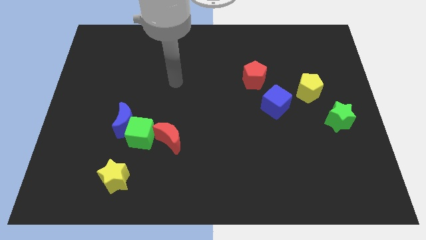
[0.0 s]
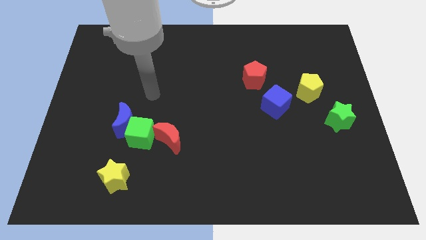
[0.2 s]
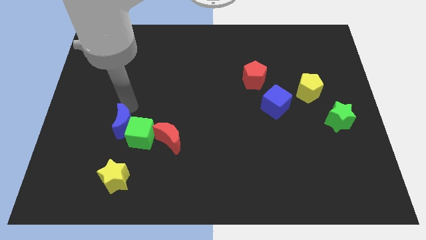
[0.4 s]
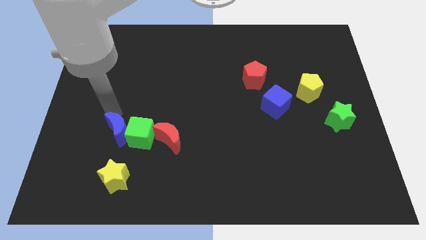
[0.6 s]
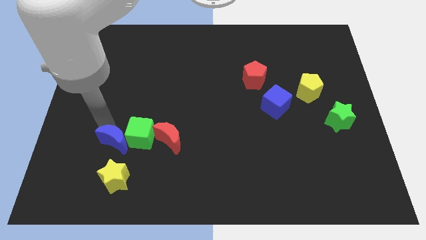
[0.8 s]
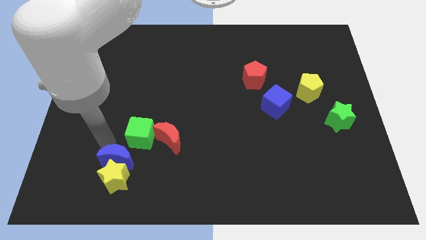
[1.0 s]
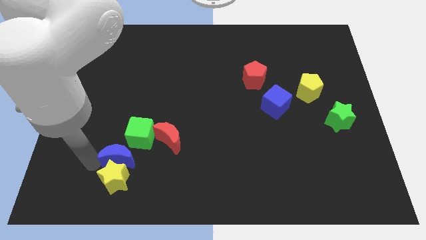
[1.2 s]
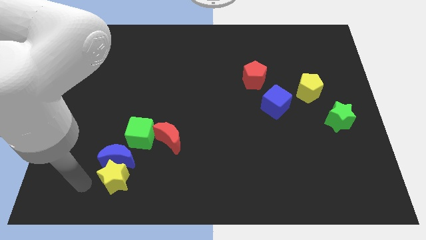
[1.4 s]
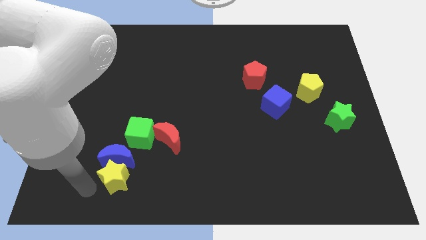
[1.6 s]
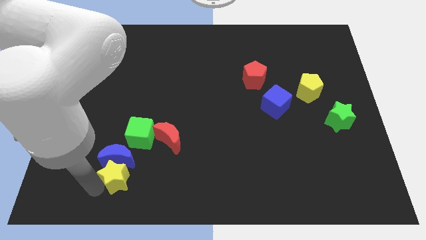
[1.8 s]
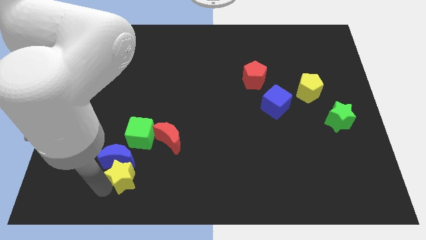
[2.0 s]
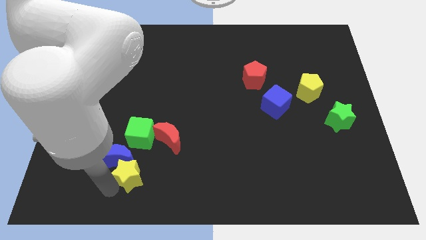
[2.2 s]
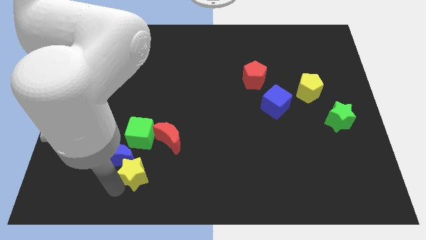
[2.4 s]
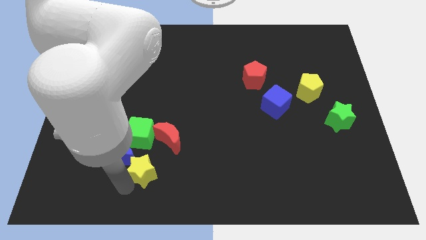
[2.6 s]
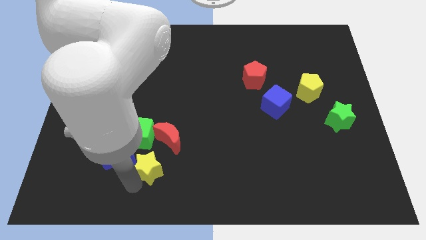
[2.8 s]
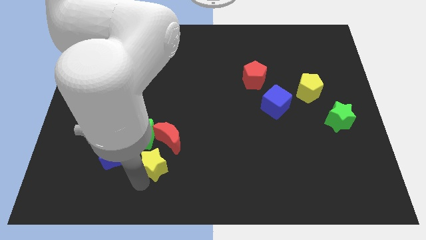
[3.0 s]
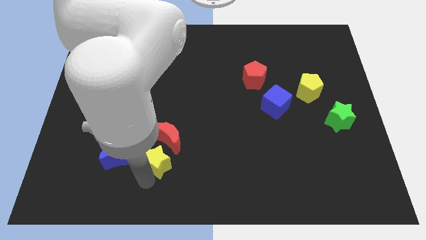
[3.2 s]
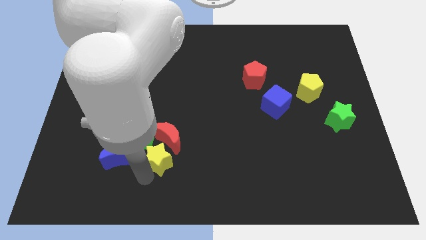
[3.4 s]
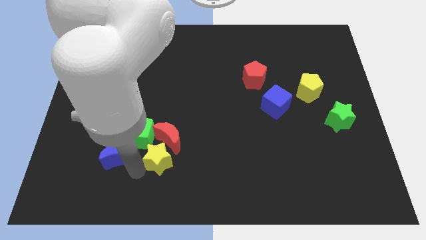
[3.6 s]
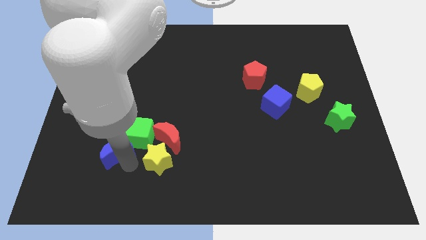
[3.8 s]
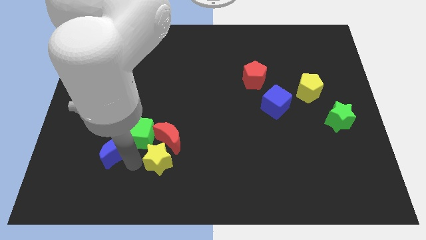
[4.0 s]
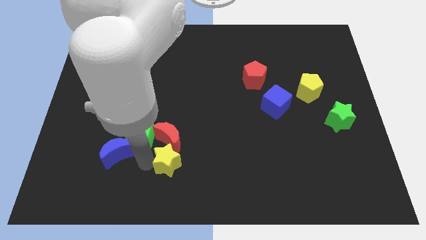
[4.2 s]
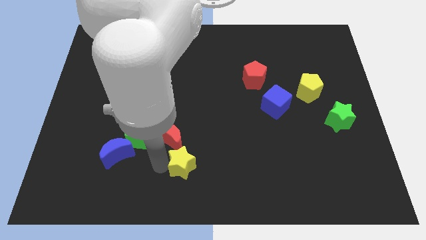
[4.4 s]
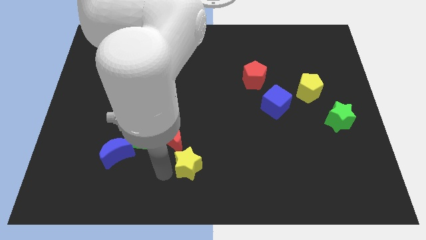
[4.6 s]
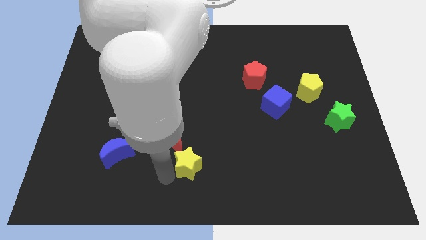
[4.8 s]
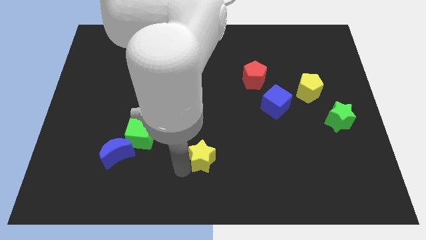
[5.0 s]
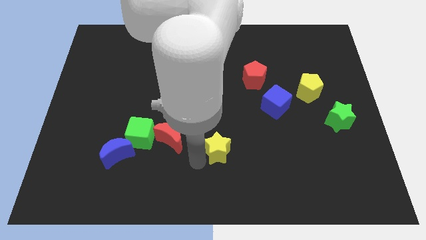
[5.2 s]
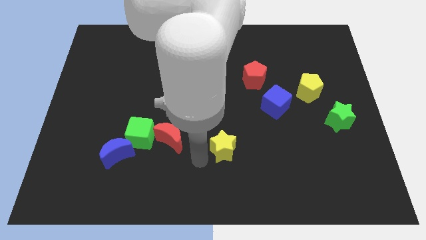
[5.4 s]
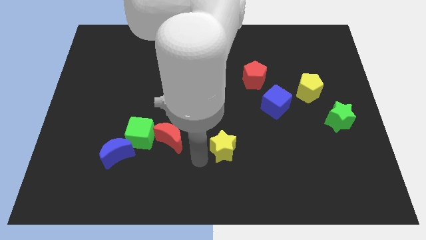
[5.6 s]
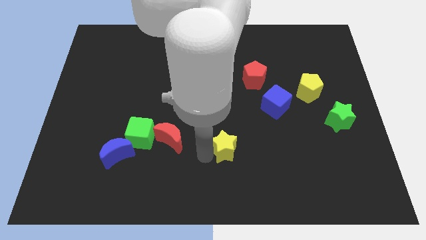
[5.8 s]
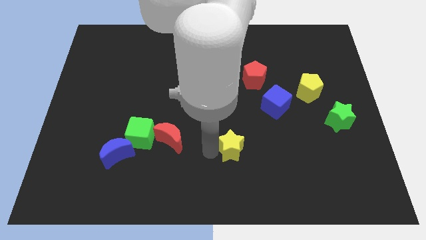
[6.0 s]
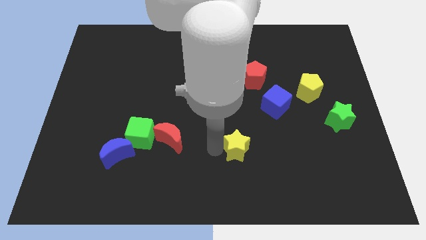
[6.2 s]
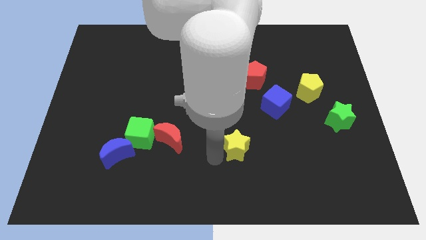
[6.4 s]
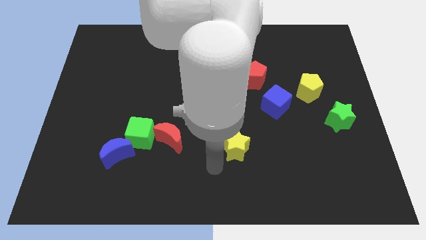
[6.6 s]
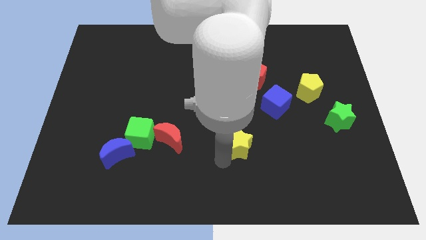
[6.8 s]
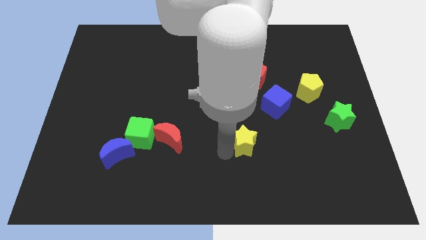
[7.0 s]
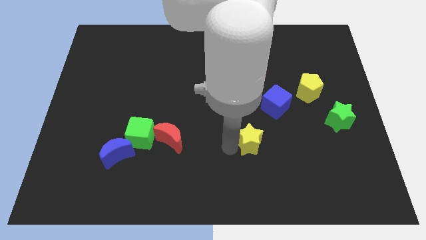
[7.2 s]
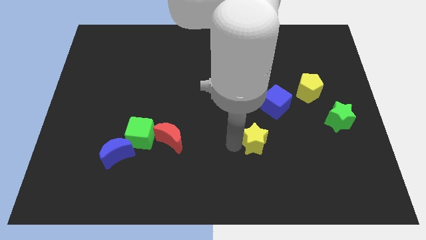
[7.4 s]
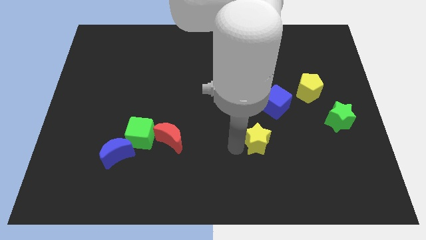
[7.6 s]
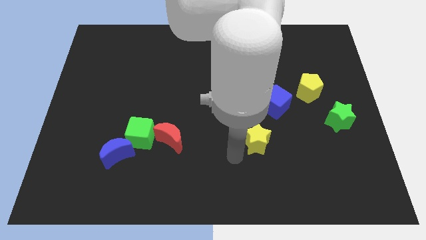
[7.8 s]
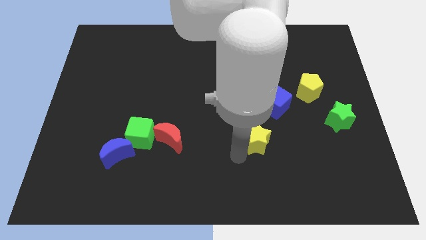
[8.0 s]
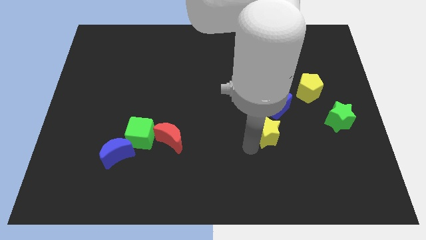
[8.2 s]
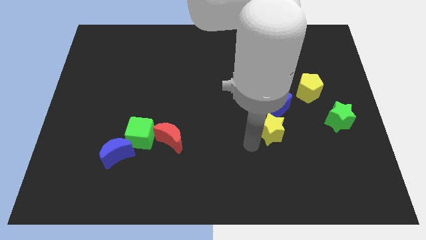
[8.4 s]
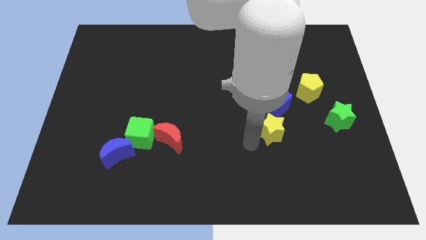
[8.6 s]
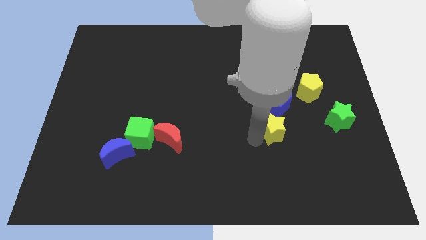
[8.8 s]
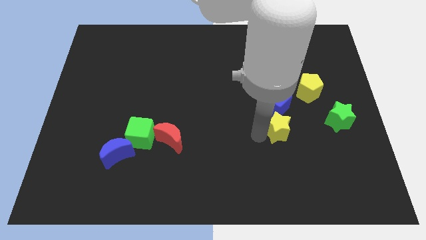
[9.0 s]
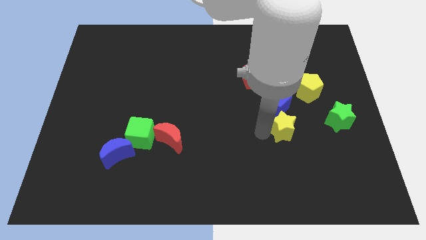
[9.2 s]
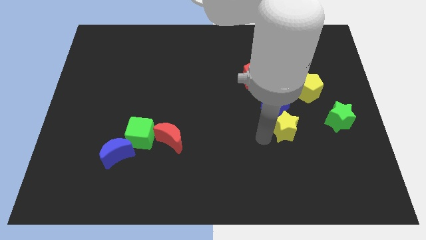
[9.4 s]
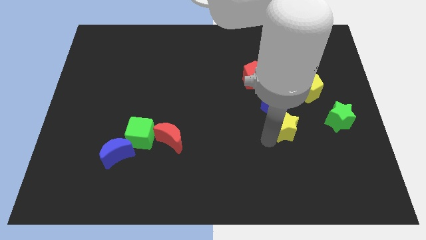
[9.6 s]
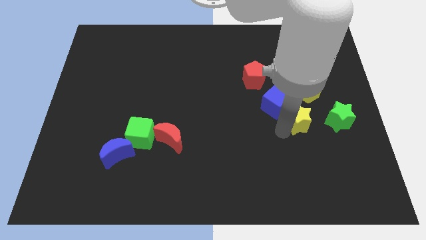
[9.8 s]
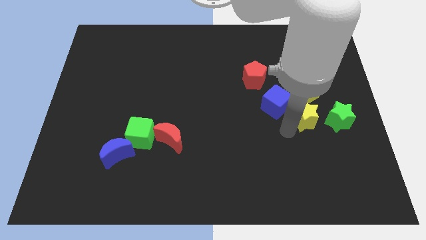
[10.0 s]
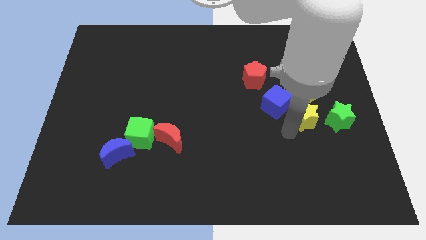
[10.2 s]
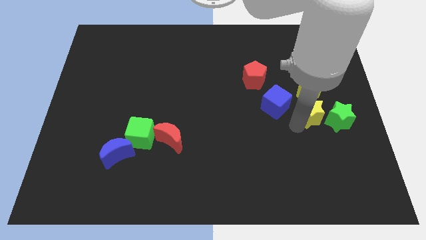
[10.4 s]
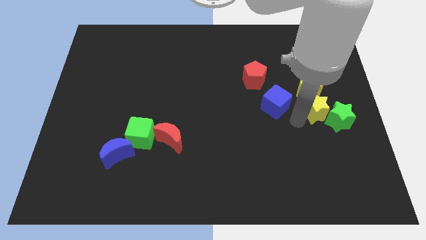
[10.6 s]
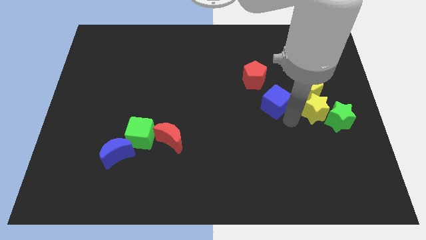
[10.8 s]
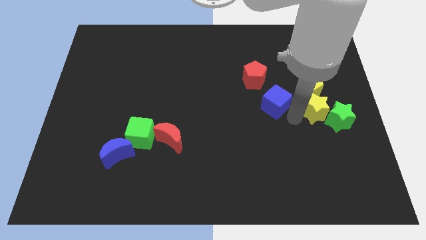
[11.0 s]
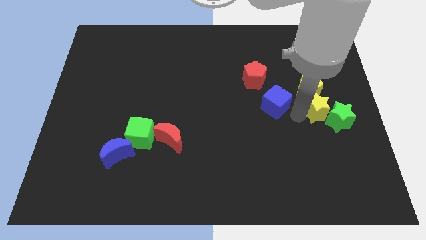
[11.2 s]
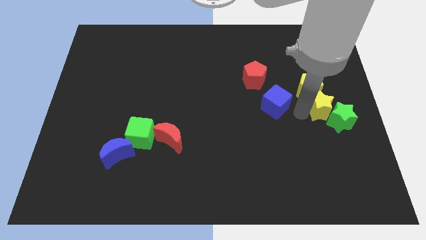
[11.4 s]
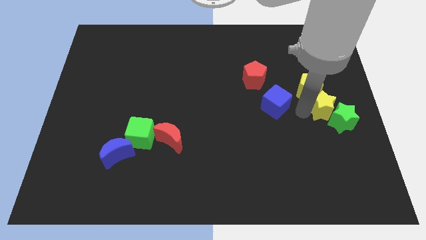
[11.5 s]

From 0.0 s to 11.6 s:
push the yellow star to the right side of the board

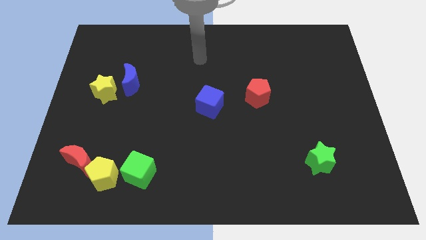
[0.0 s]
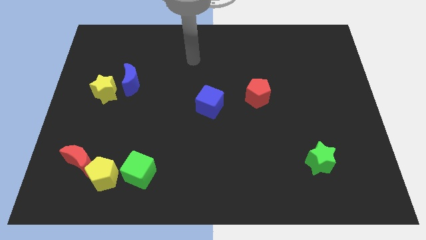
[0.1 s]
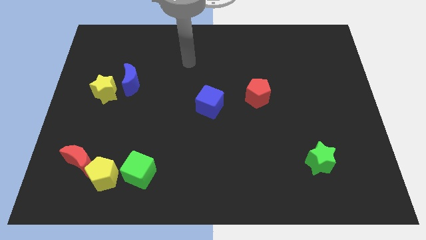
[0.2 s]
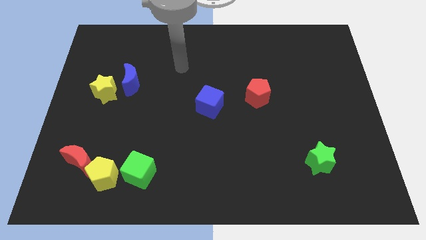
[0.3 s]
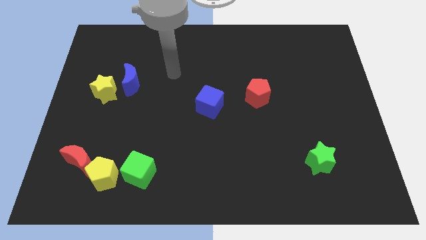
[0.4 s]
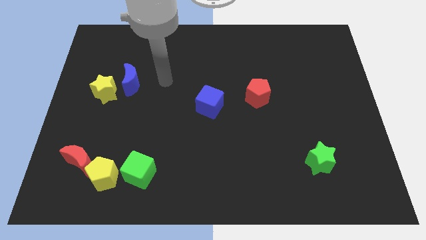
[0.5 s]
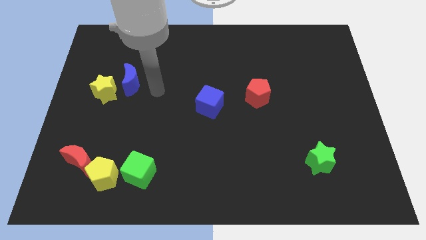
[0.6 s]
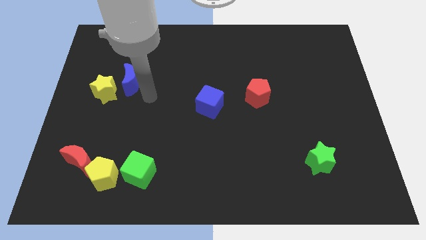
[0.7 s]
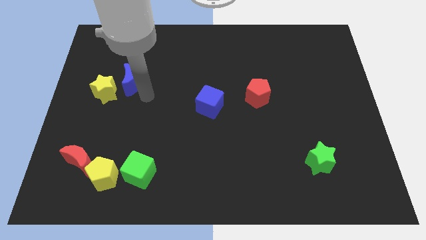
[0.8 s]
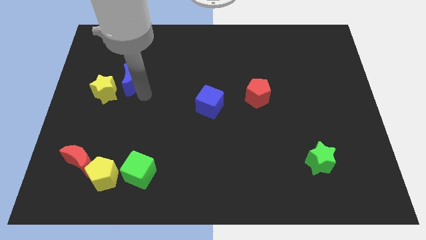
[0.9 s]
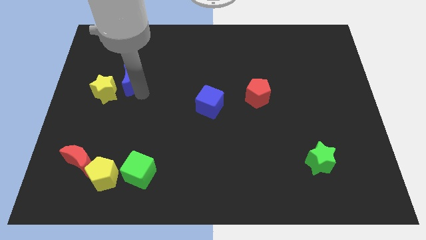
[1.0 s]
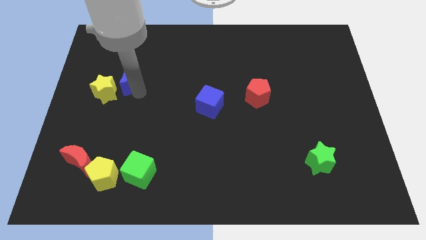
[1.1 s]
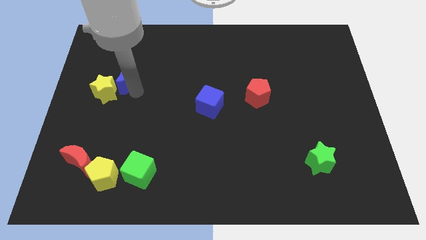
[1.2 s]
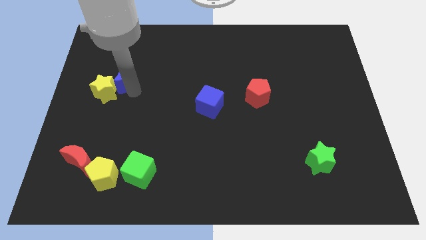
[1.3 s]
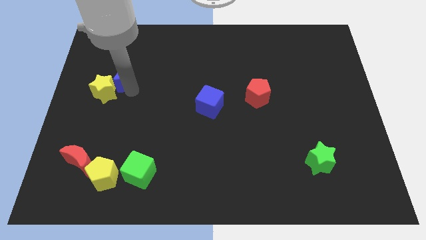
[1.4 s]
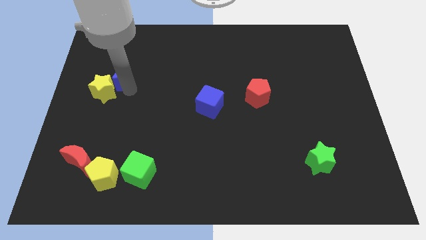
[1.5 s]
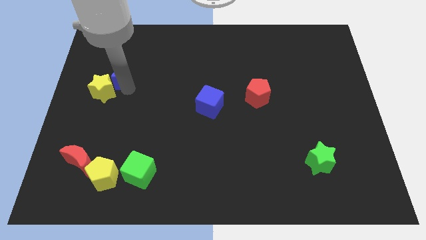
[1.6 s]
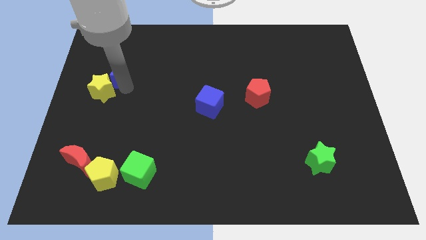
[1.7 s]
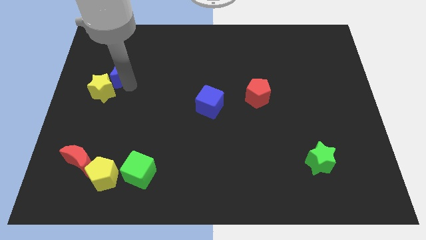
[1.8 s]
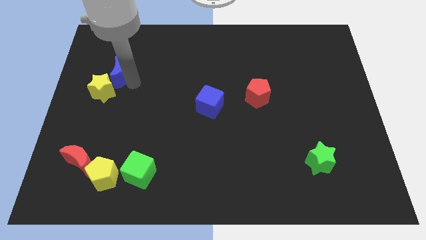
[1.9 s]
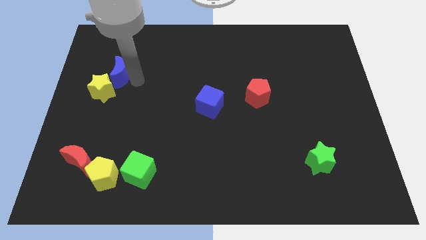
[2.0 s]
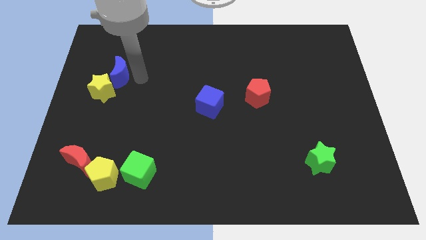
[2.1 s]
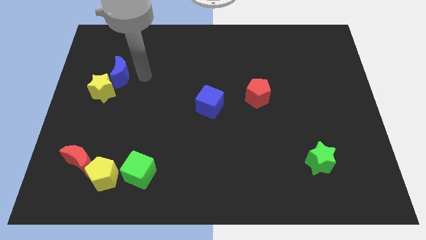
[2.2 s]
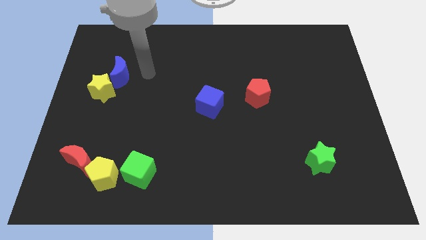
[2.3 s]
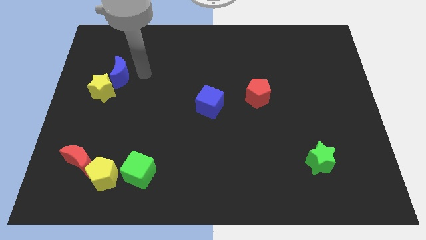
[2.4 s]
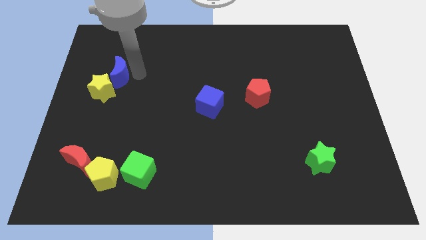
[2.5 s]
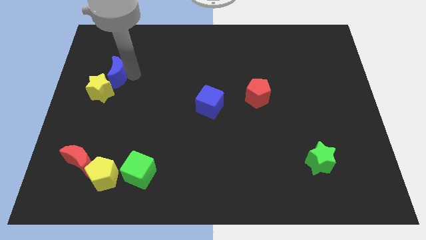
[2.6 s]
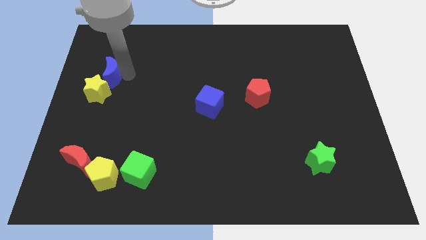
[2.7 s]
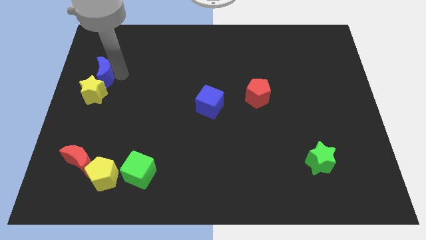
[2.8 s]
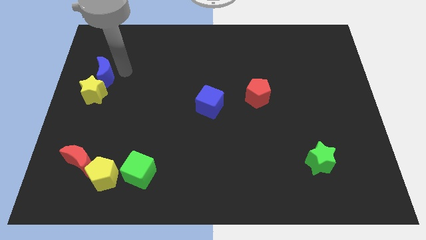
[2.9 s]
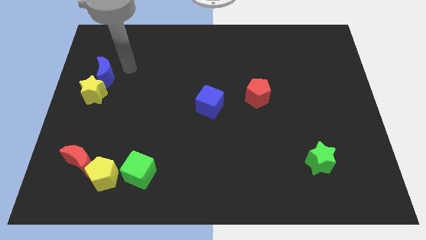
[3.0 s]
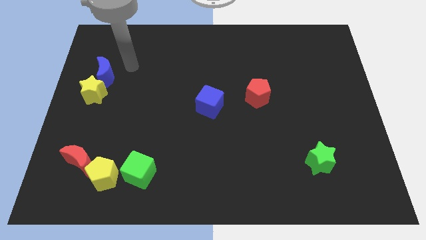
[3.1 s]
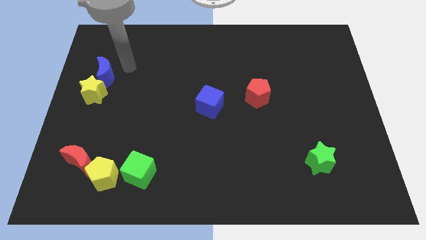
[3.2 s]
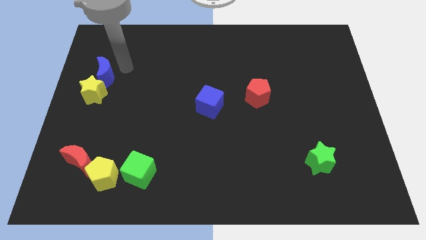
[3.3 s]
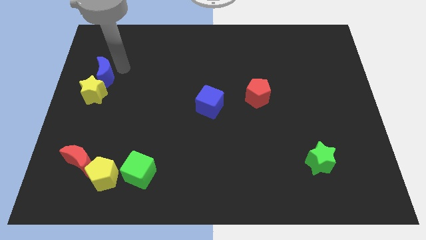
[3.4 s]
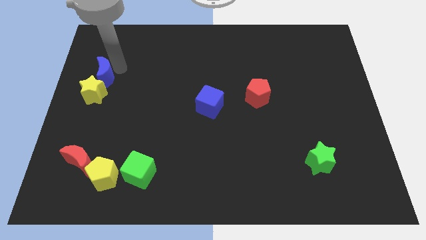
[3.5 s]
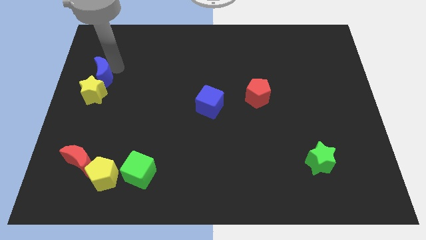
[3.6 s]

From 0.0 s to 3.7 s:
slide the blue moon to the left side of the board
